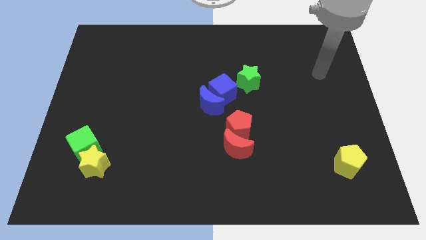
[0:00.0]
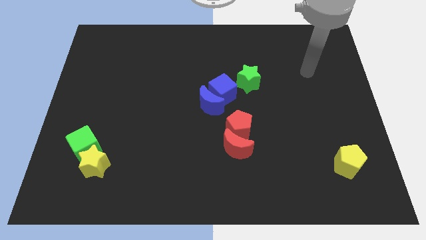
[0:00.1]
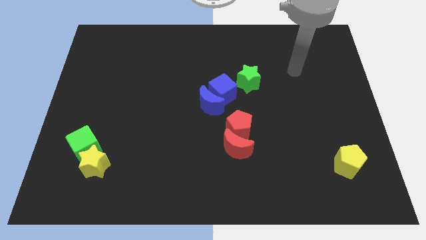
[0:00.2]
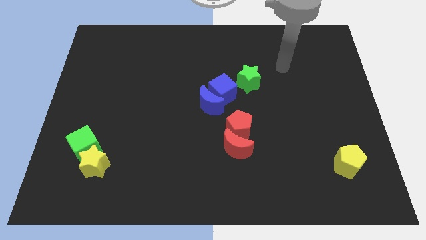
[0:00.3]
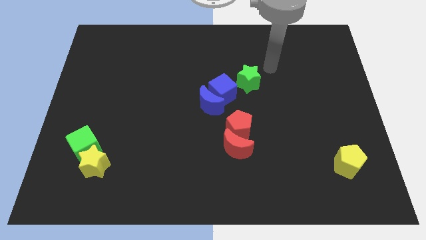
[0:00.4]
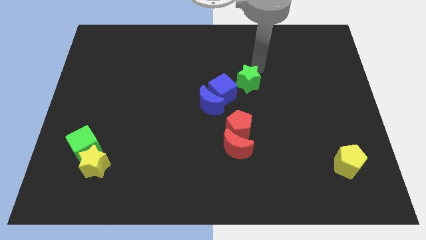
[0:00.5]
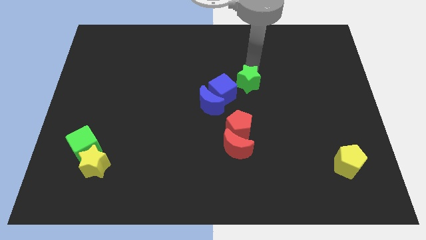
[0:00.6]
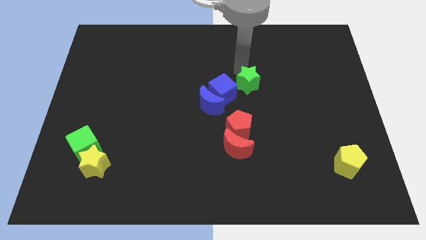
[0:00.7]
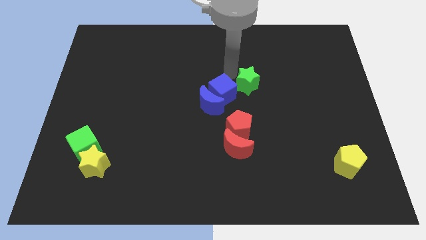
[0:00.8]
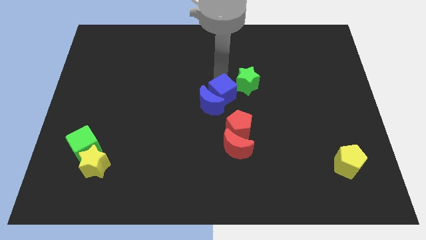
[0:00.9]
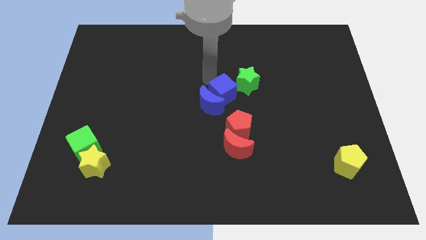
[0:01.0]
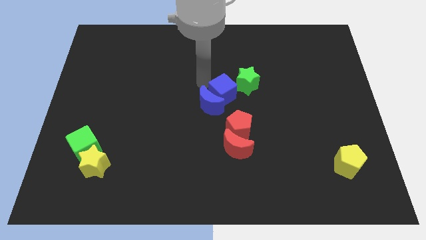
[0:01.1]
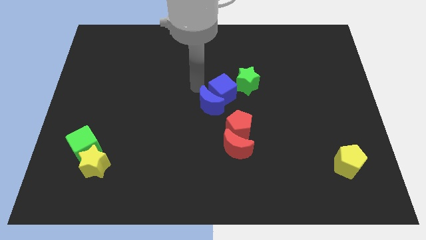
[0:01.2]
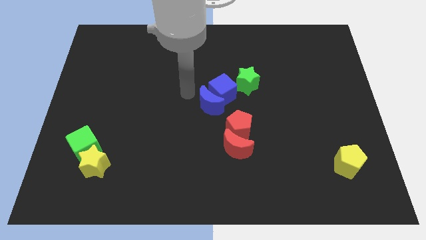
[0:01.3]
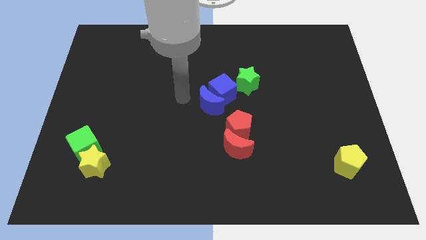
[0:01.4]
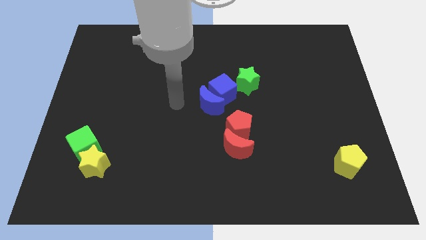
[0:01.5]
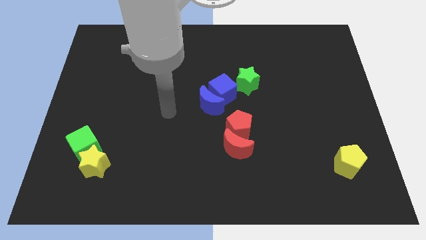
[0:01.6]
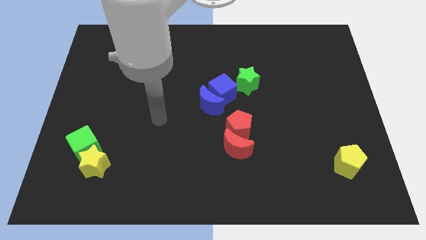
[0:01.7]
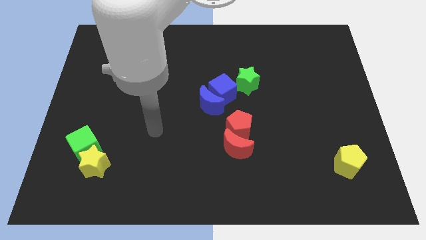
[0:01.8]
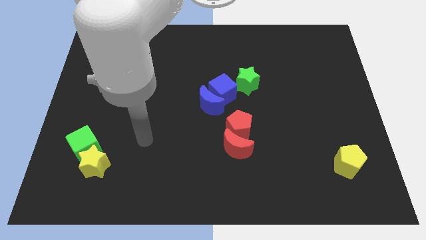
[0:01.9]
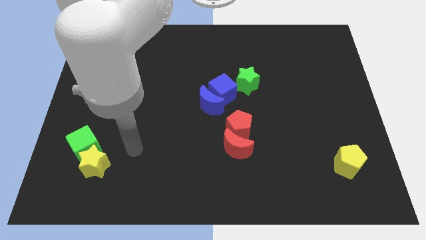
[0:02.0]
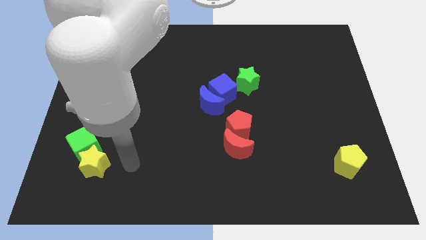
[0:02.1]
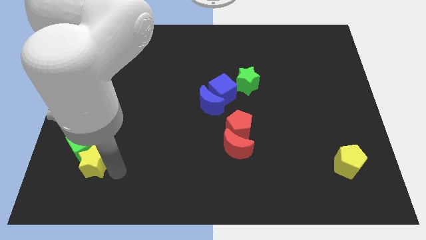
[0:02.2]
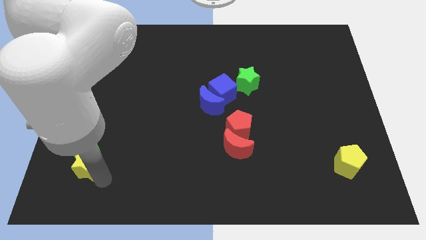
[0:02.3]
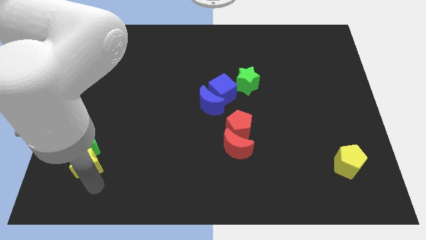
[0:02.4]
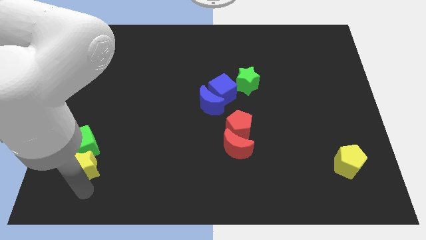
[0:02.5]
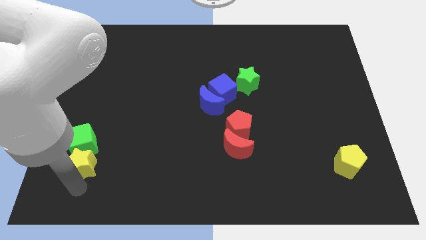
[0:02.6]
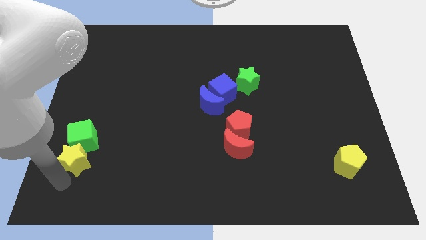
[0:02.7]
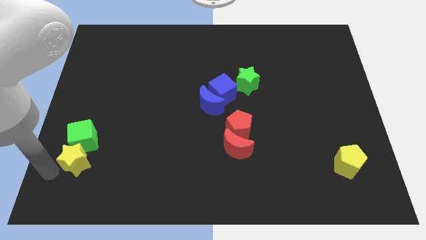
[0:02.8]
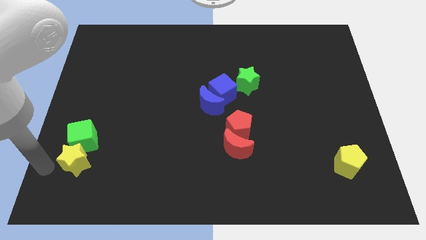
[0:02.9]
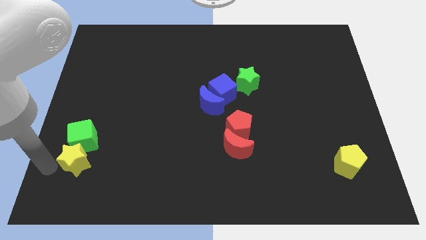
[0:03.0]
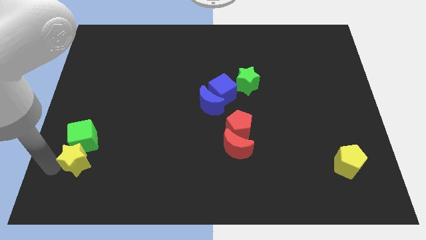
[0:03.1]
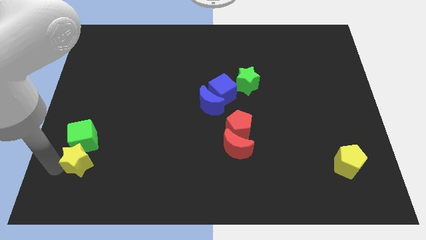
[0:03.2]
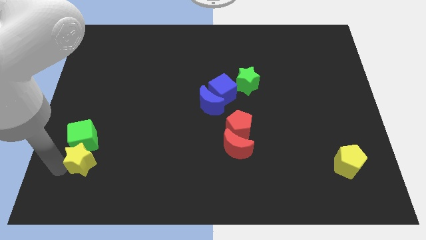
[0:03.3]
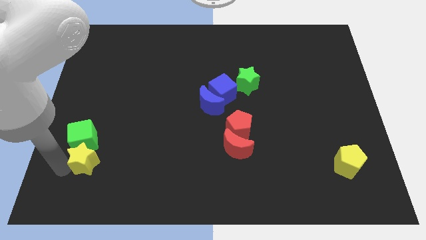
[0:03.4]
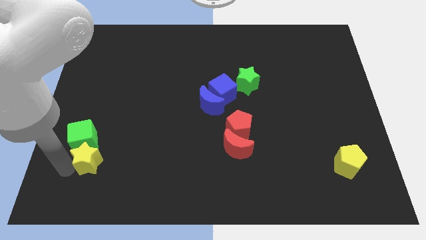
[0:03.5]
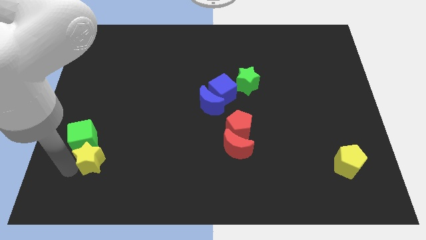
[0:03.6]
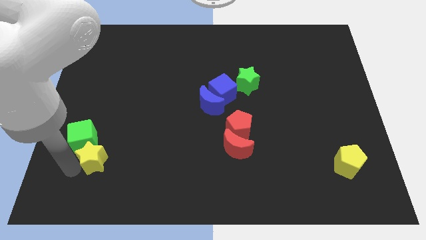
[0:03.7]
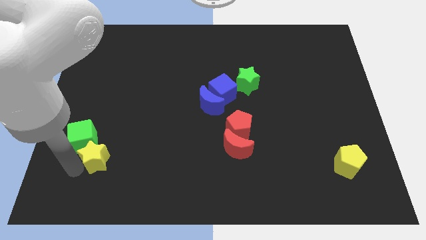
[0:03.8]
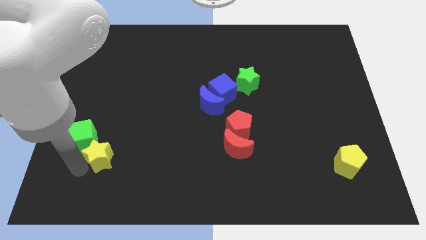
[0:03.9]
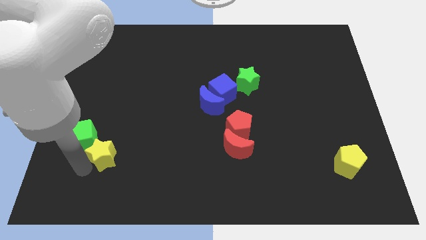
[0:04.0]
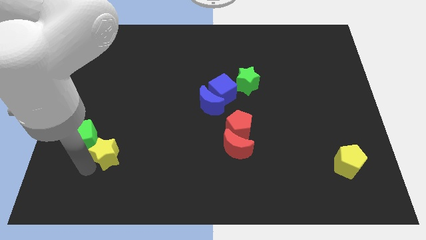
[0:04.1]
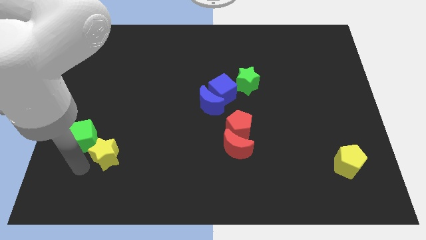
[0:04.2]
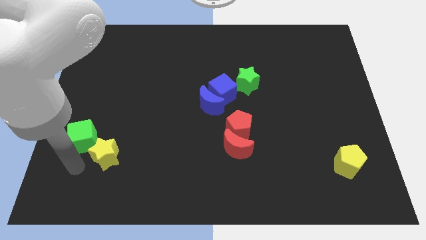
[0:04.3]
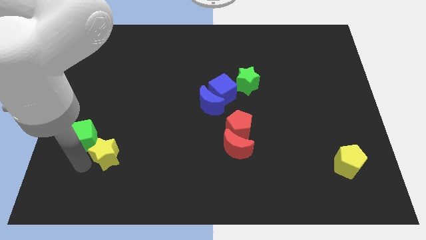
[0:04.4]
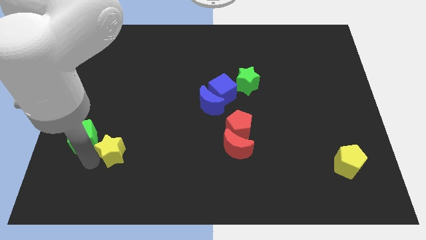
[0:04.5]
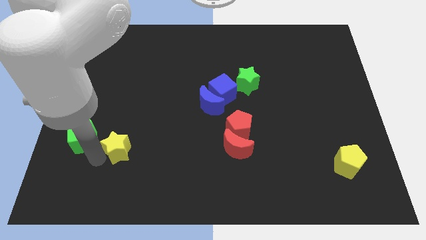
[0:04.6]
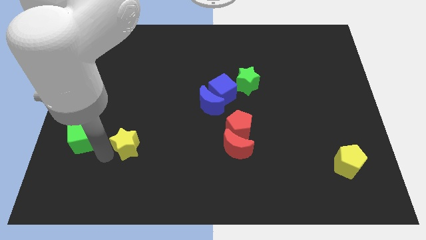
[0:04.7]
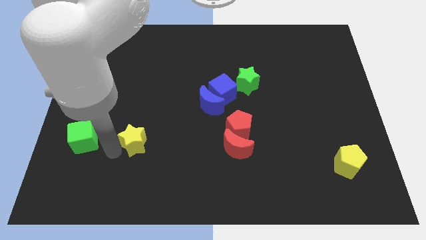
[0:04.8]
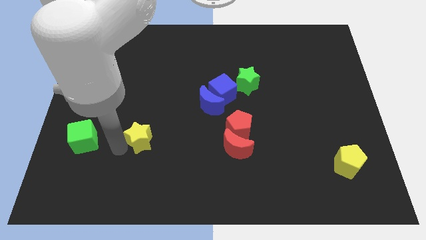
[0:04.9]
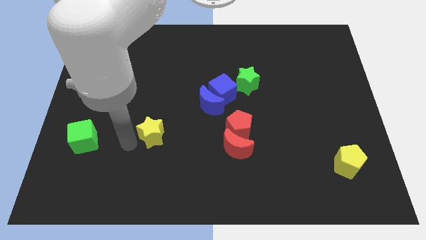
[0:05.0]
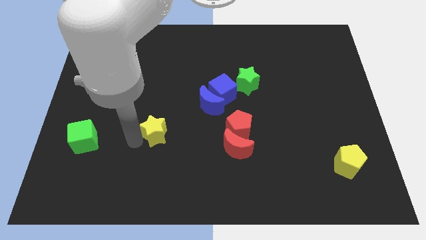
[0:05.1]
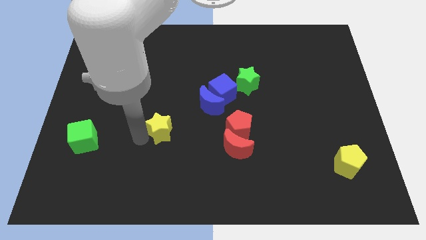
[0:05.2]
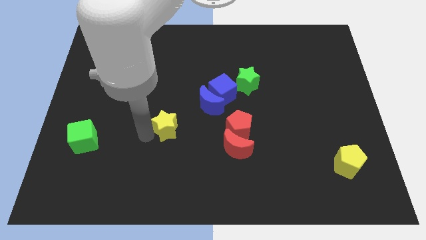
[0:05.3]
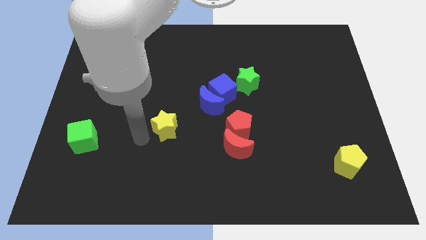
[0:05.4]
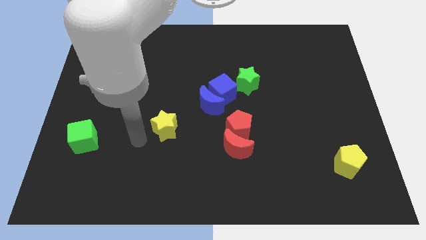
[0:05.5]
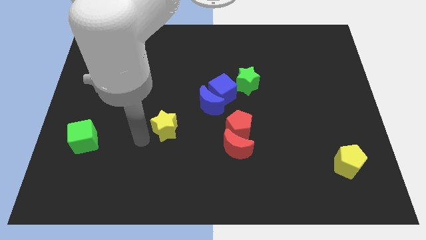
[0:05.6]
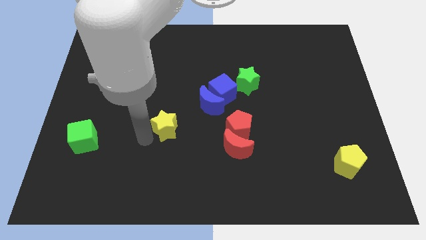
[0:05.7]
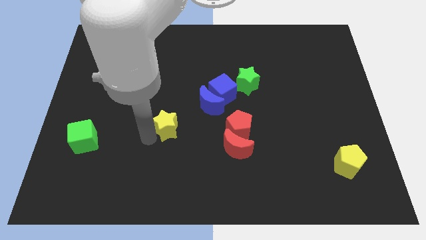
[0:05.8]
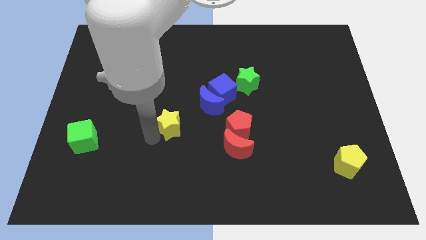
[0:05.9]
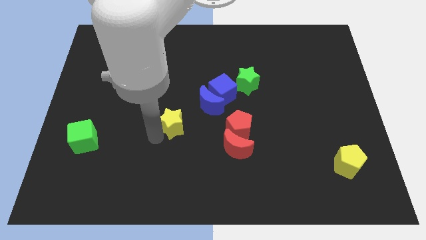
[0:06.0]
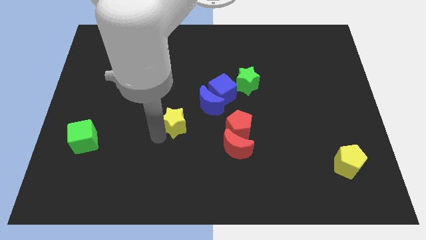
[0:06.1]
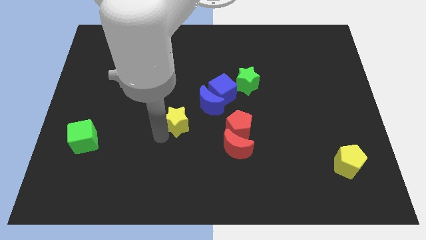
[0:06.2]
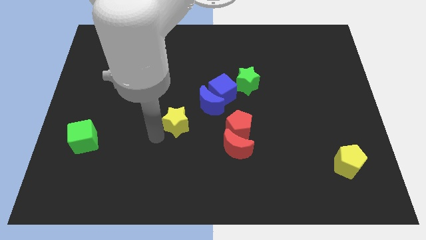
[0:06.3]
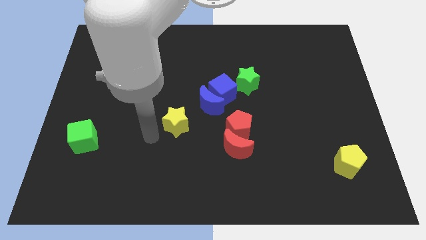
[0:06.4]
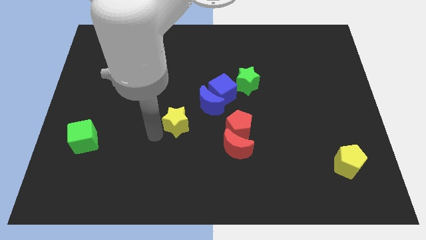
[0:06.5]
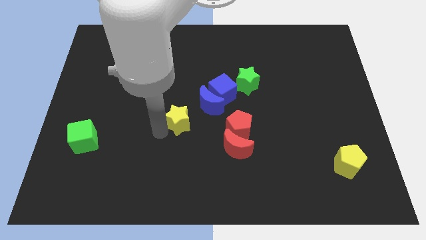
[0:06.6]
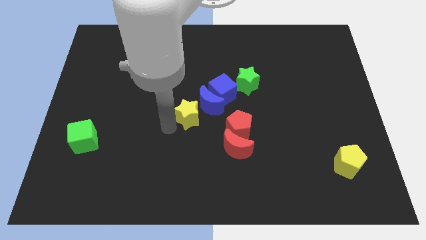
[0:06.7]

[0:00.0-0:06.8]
push the yellow star to the blue moon

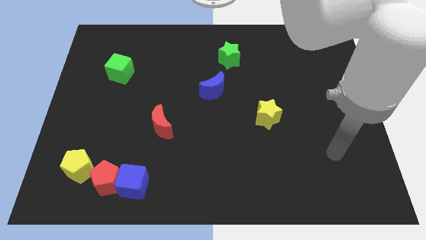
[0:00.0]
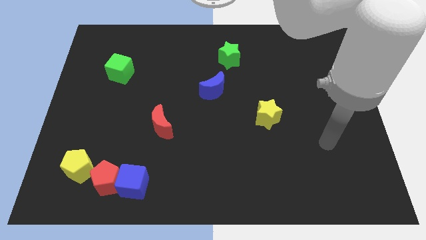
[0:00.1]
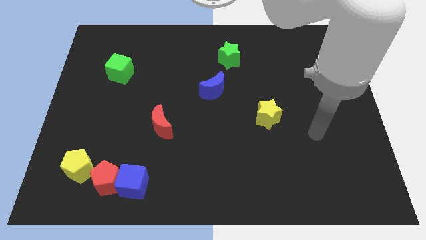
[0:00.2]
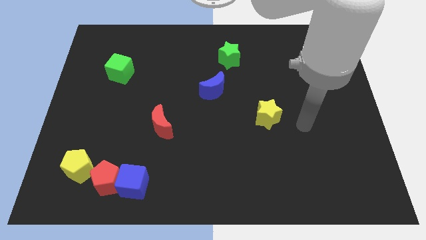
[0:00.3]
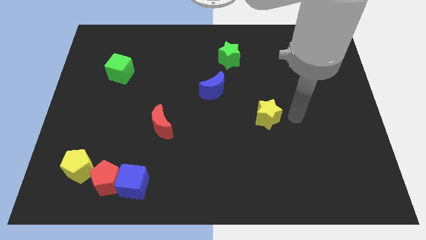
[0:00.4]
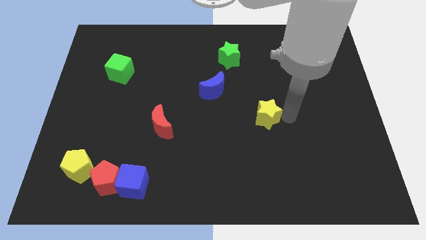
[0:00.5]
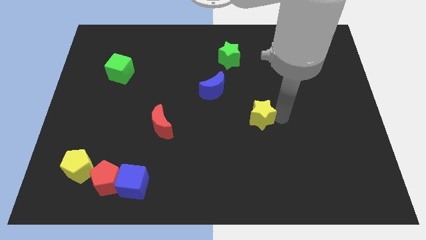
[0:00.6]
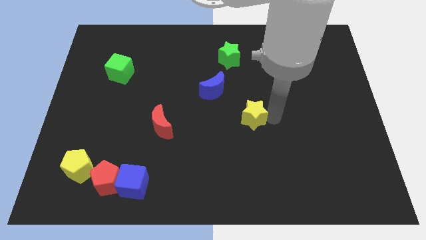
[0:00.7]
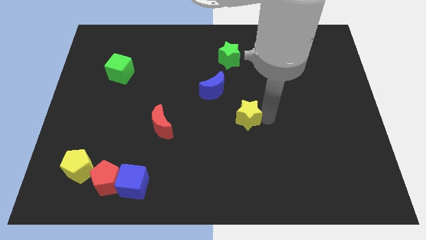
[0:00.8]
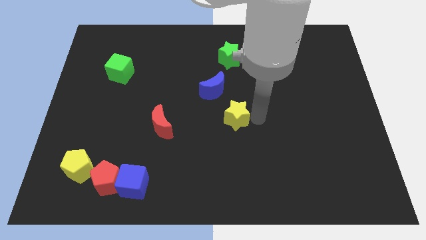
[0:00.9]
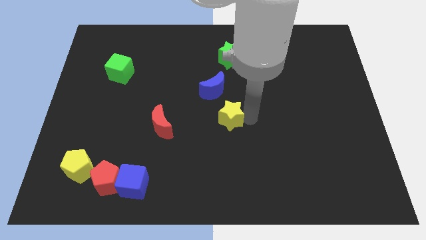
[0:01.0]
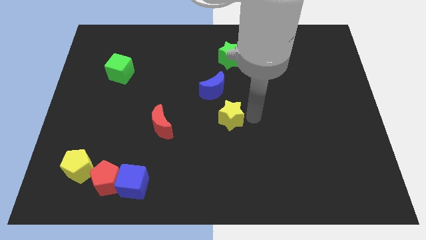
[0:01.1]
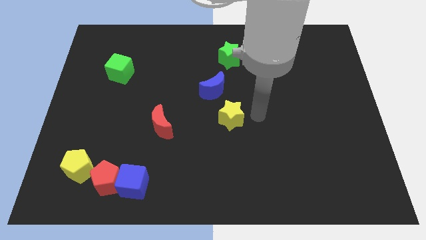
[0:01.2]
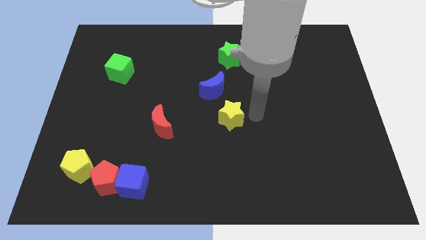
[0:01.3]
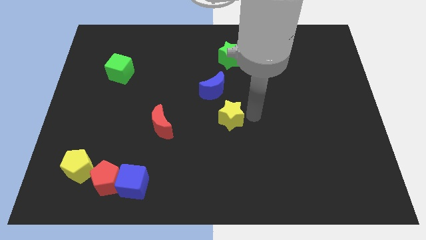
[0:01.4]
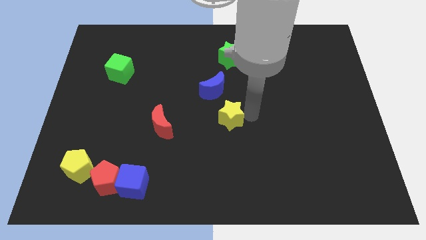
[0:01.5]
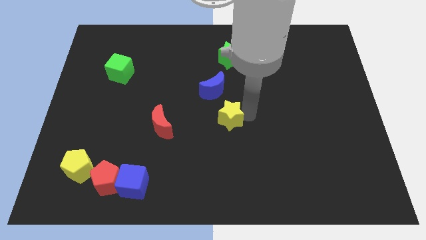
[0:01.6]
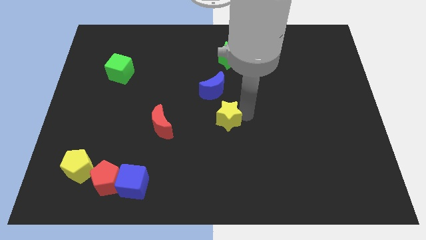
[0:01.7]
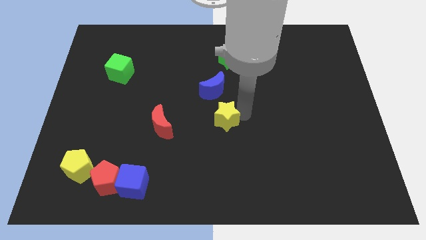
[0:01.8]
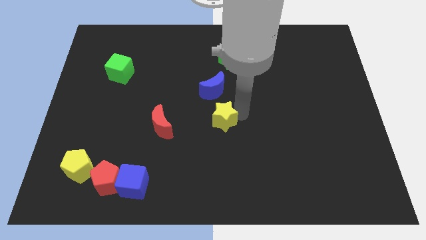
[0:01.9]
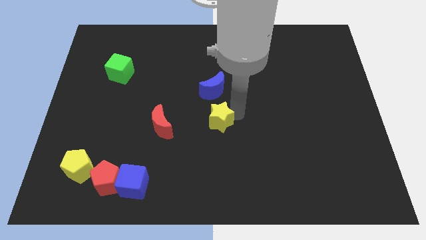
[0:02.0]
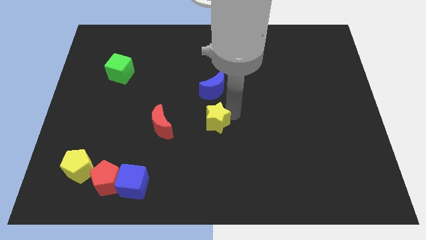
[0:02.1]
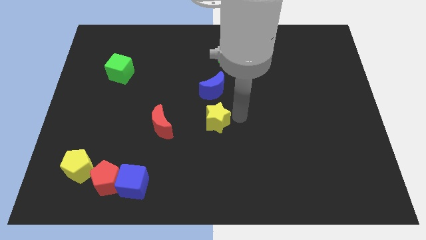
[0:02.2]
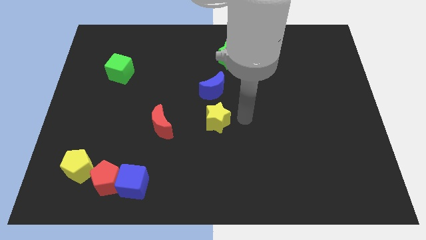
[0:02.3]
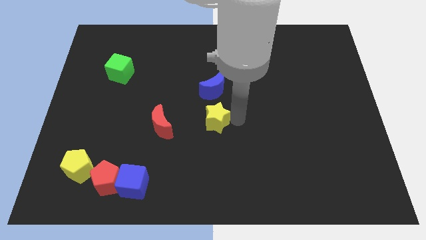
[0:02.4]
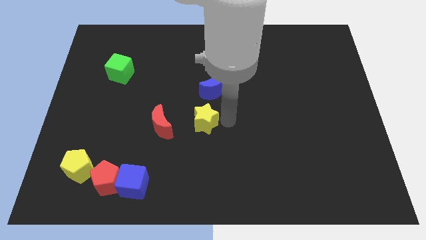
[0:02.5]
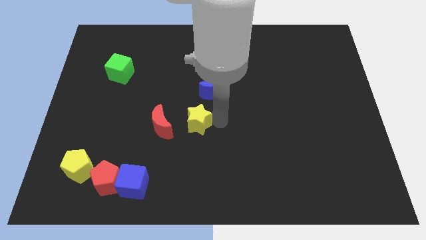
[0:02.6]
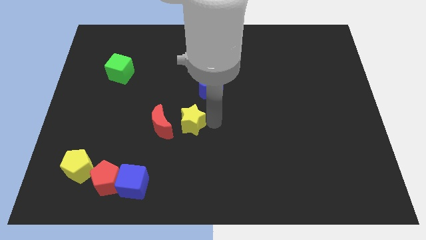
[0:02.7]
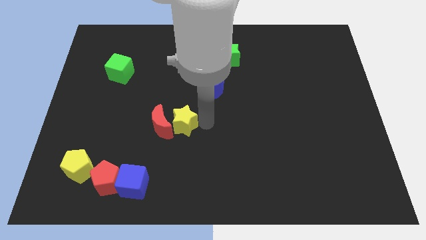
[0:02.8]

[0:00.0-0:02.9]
put the yellow star towards the red moon
